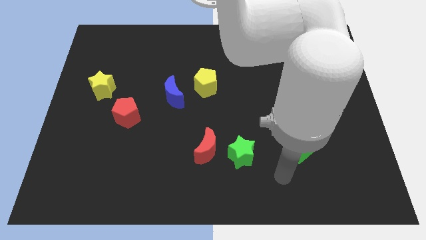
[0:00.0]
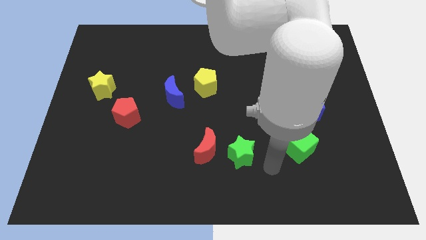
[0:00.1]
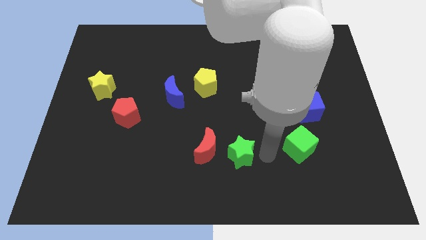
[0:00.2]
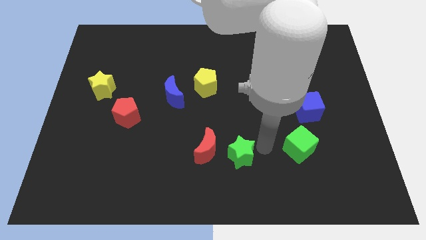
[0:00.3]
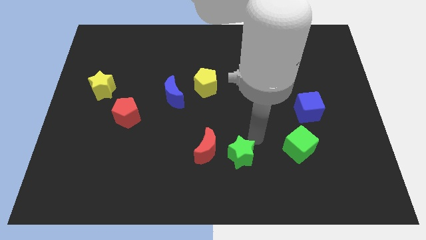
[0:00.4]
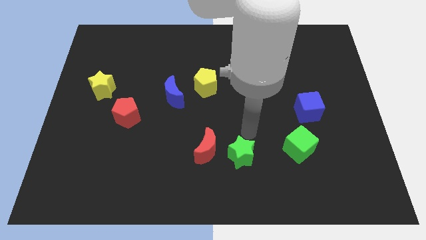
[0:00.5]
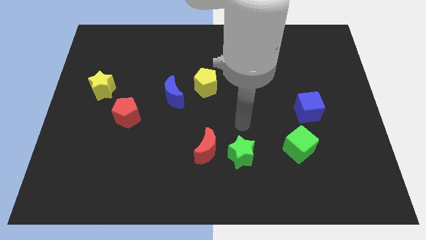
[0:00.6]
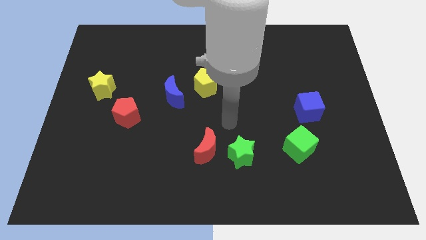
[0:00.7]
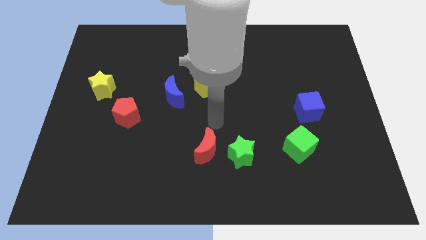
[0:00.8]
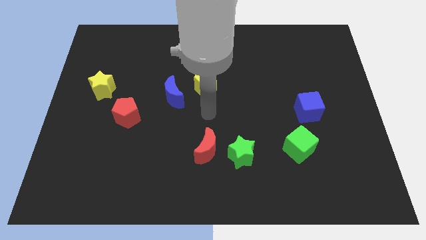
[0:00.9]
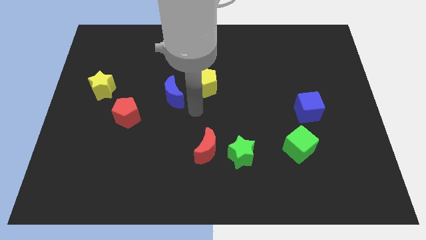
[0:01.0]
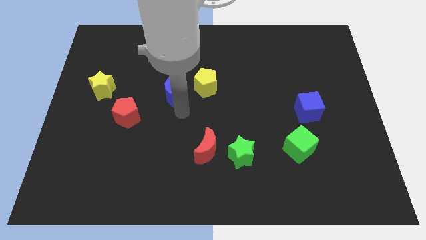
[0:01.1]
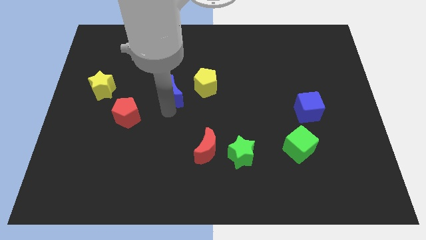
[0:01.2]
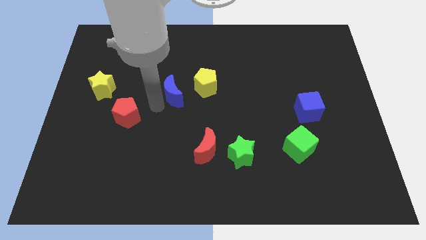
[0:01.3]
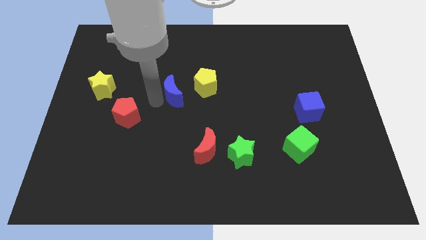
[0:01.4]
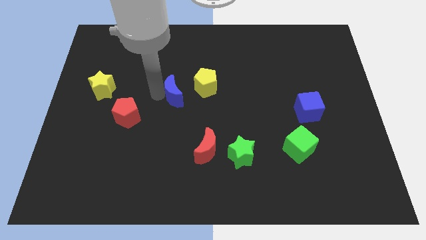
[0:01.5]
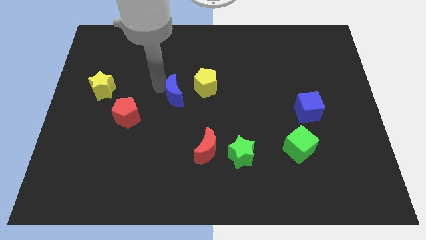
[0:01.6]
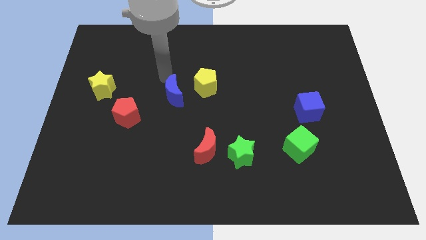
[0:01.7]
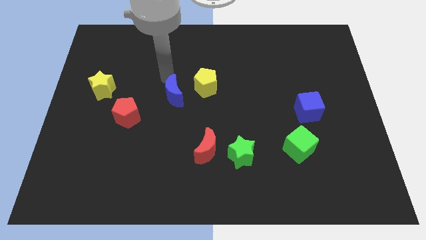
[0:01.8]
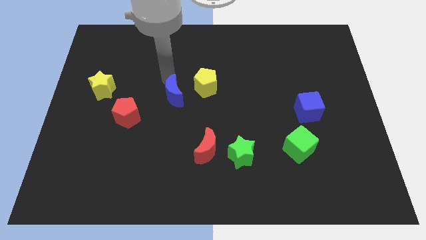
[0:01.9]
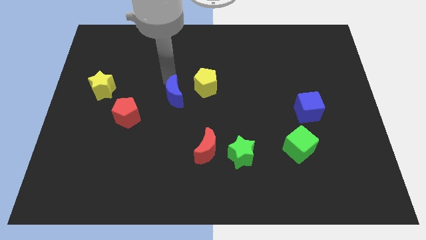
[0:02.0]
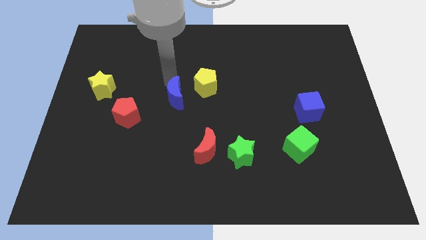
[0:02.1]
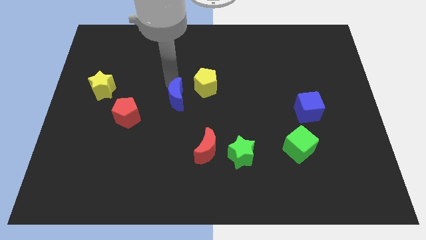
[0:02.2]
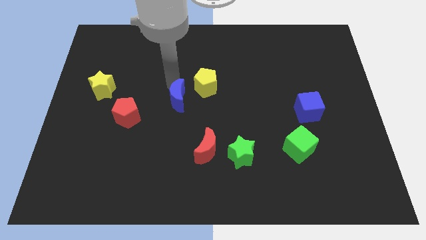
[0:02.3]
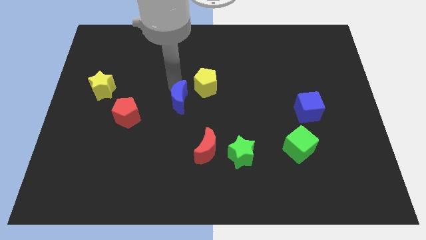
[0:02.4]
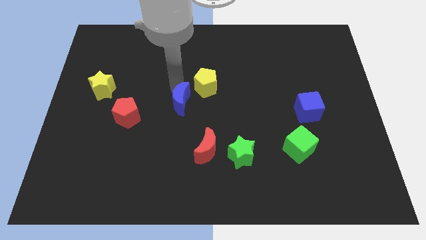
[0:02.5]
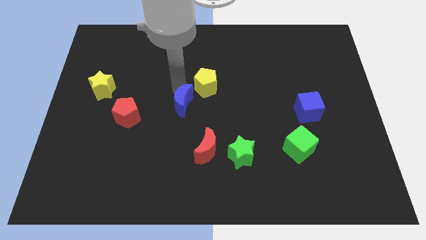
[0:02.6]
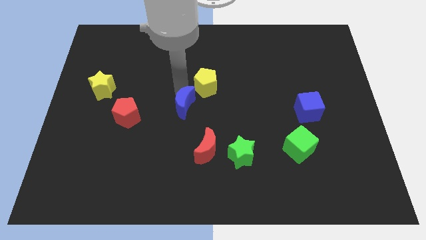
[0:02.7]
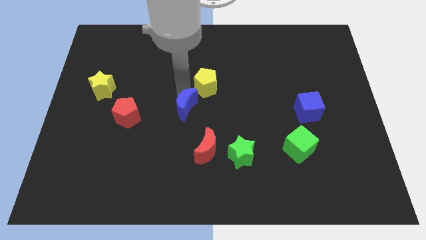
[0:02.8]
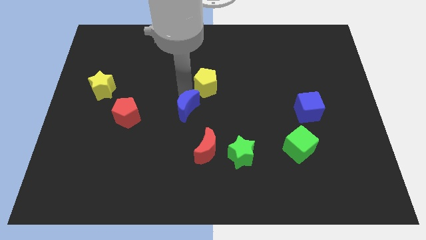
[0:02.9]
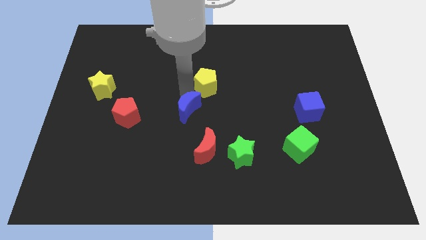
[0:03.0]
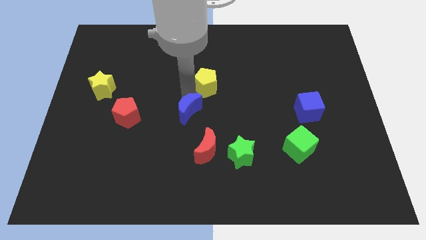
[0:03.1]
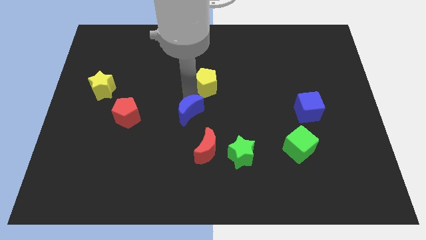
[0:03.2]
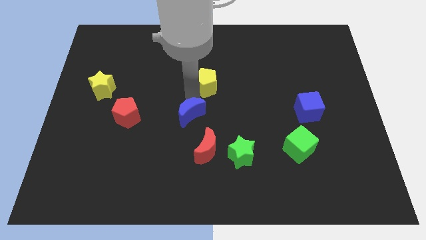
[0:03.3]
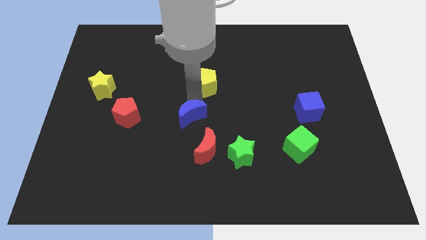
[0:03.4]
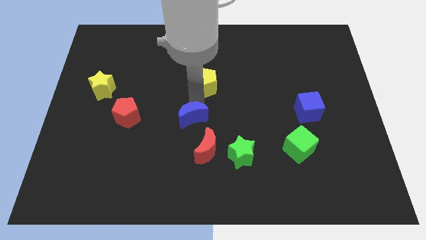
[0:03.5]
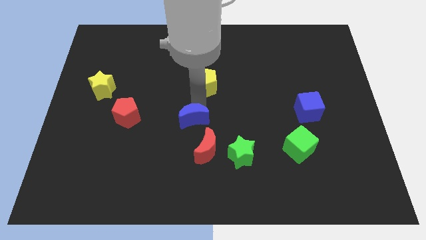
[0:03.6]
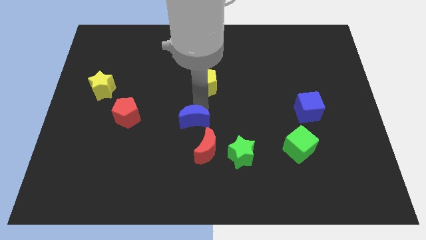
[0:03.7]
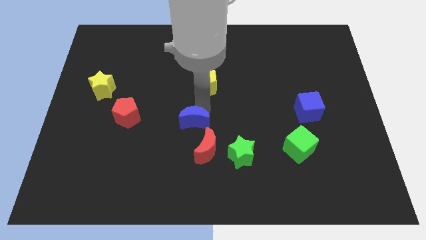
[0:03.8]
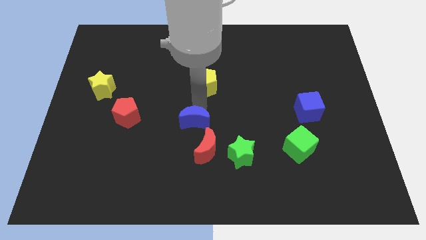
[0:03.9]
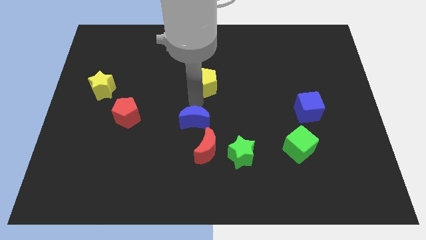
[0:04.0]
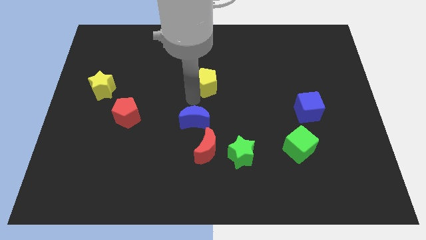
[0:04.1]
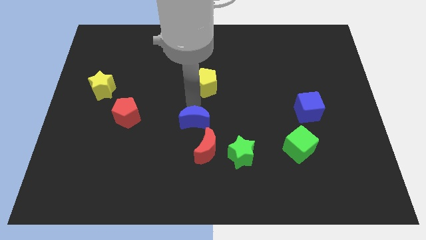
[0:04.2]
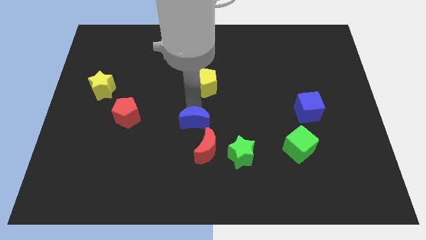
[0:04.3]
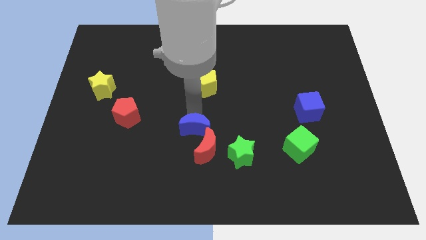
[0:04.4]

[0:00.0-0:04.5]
move the blue moon next to the red moon

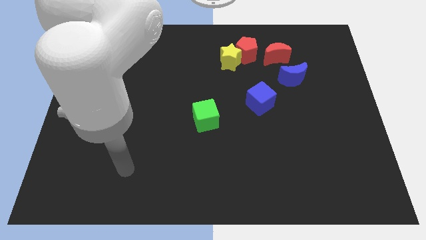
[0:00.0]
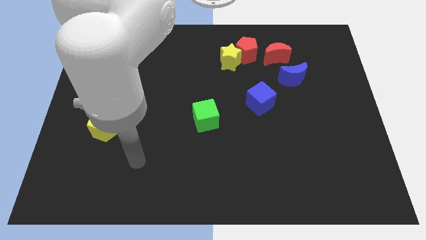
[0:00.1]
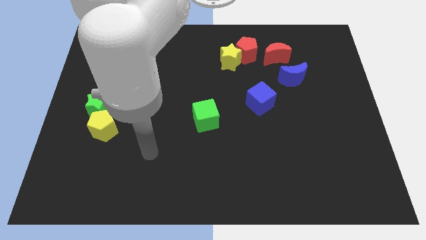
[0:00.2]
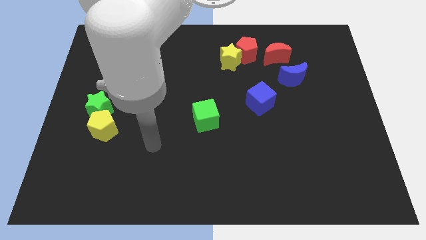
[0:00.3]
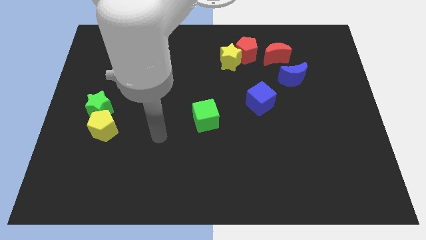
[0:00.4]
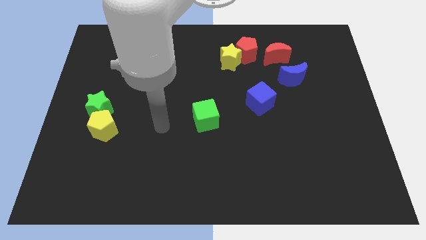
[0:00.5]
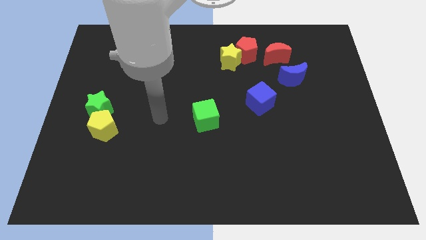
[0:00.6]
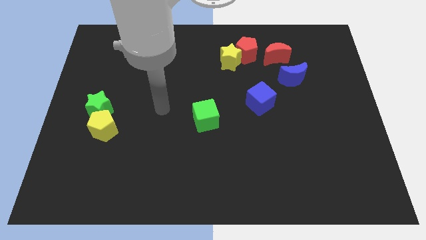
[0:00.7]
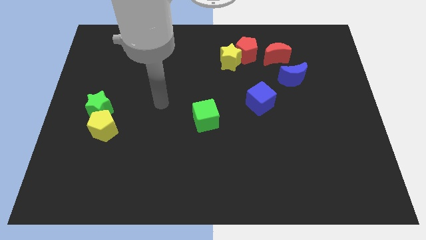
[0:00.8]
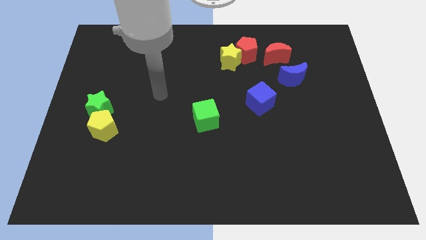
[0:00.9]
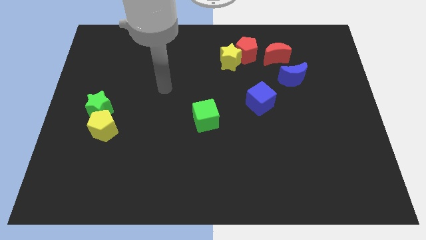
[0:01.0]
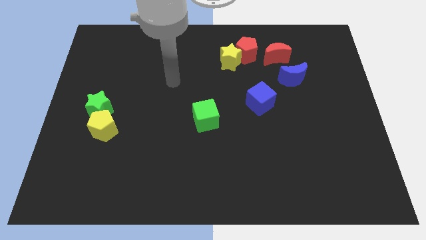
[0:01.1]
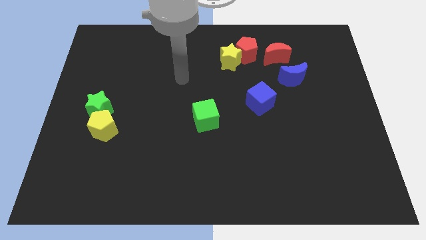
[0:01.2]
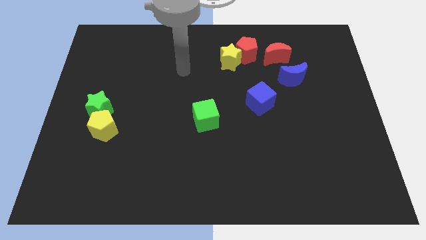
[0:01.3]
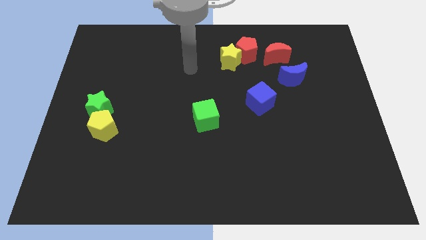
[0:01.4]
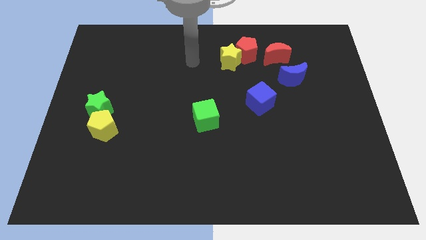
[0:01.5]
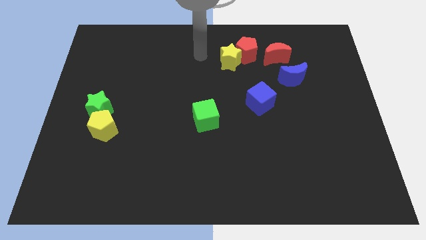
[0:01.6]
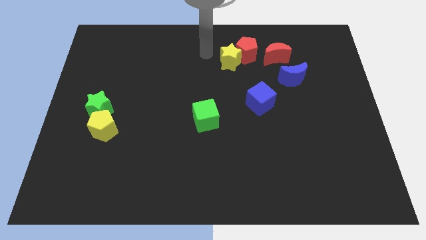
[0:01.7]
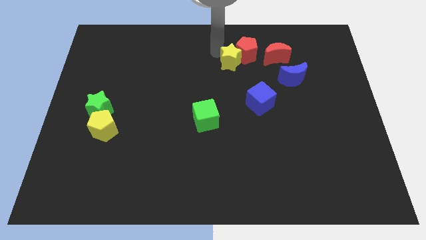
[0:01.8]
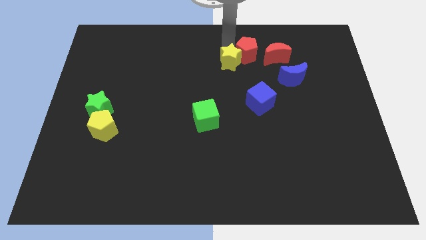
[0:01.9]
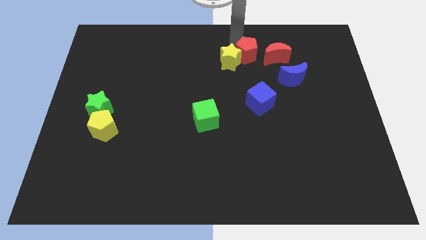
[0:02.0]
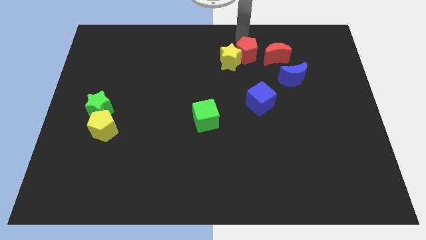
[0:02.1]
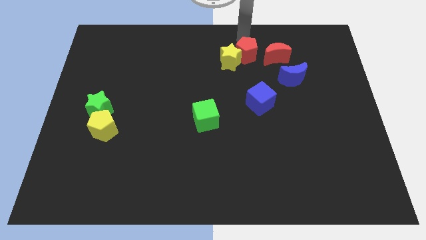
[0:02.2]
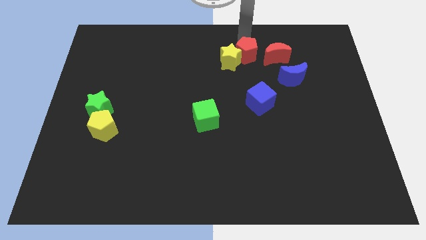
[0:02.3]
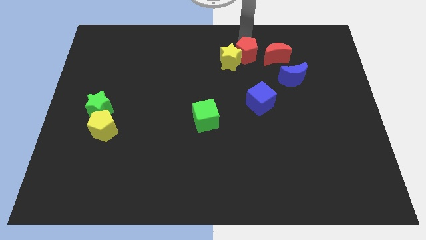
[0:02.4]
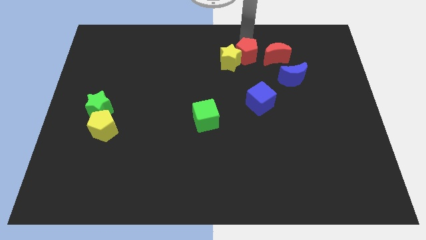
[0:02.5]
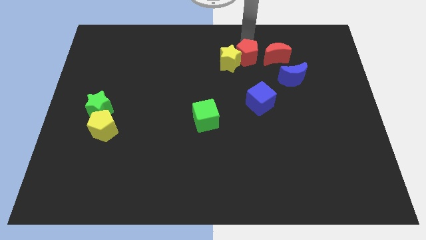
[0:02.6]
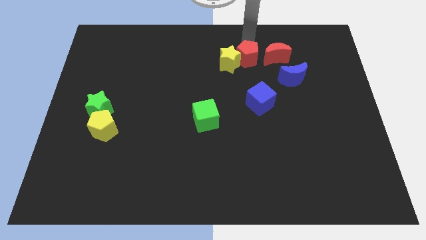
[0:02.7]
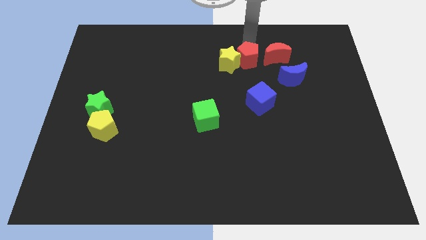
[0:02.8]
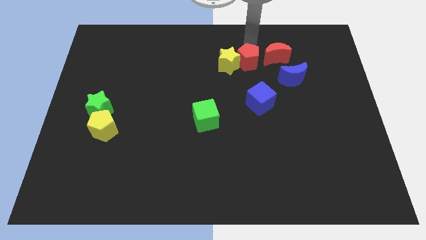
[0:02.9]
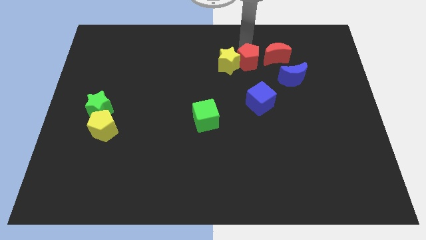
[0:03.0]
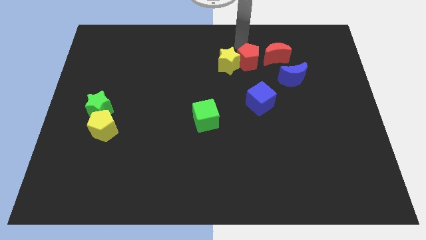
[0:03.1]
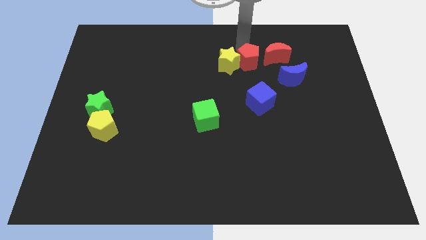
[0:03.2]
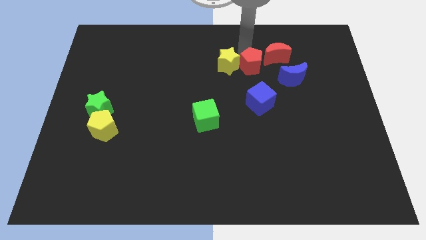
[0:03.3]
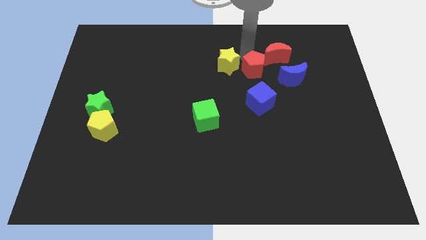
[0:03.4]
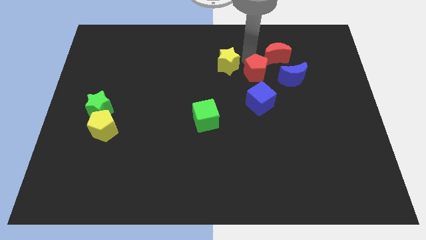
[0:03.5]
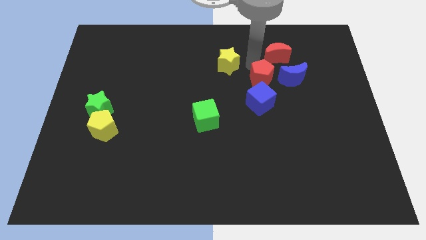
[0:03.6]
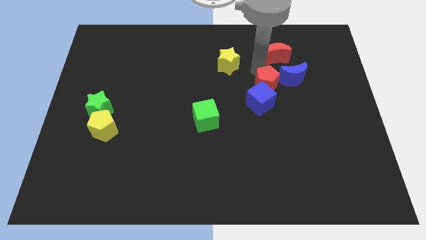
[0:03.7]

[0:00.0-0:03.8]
put the red pentagon close to the blue cube
